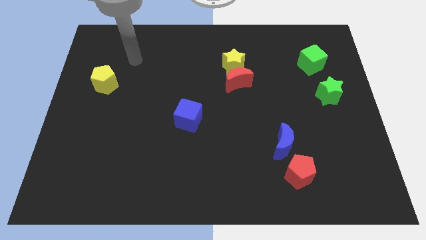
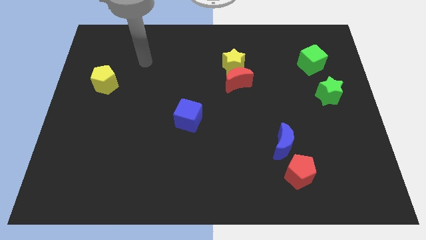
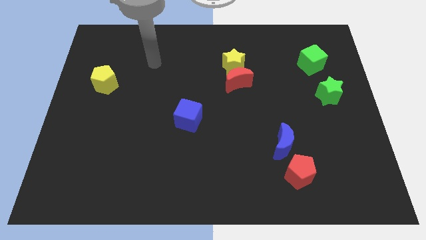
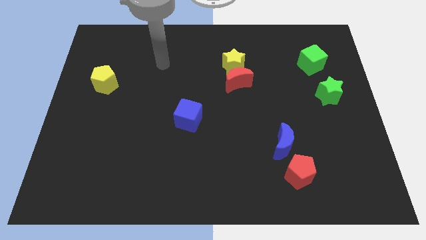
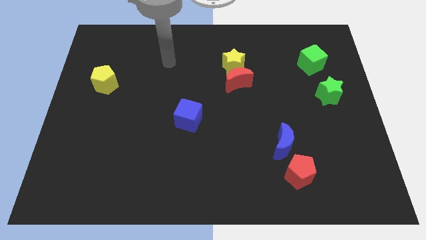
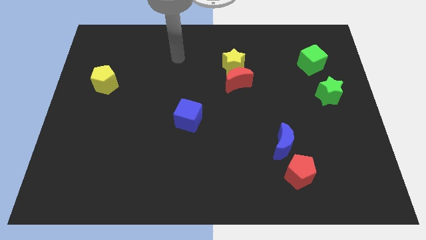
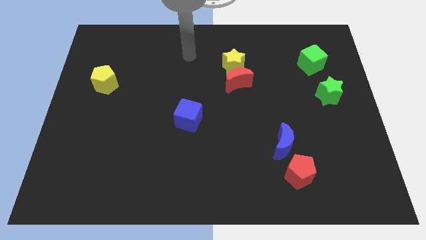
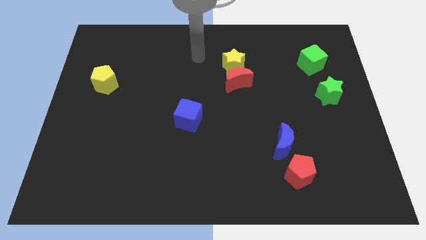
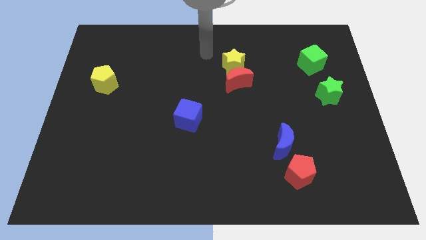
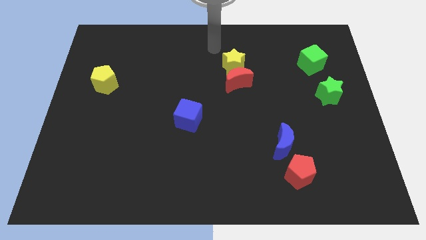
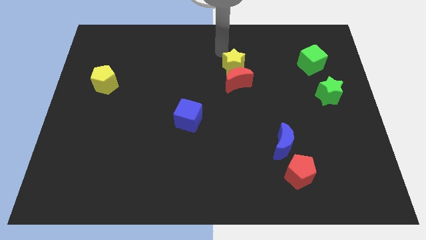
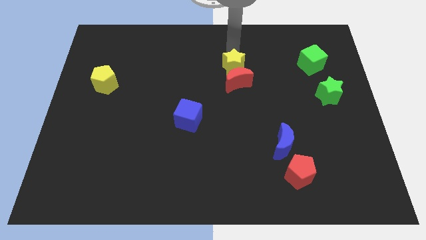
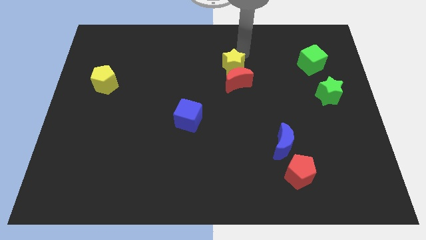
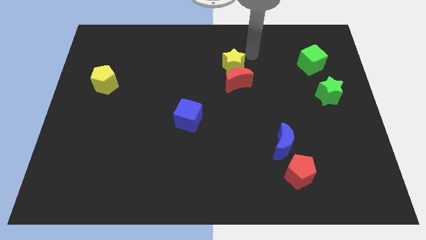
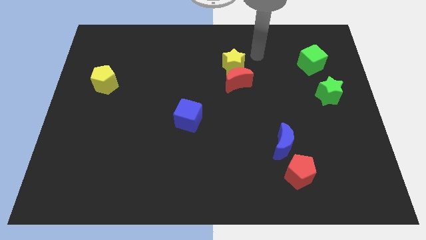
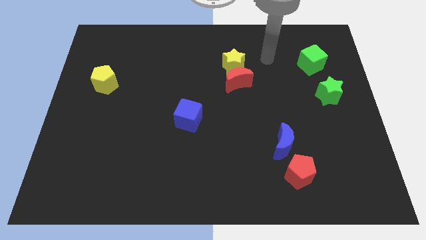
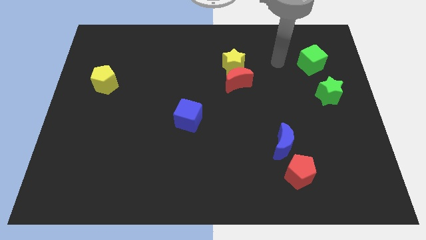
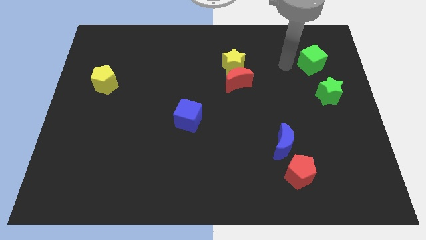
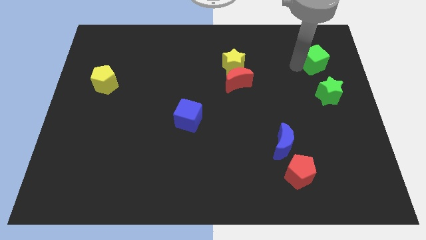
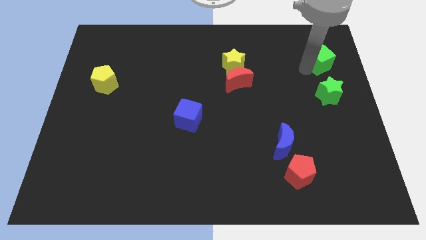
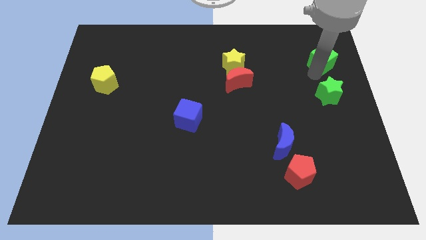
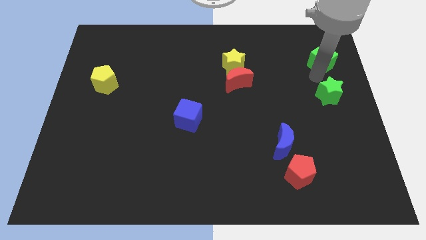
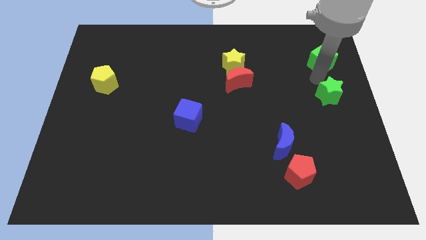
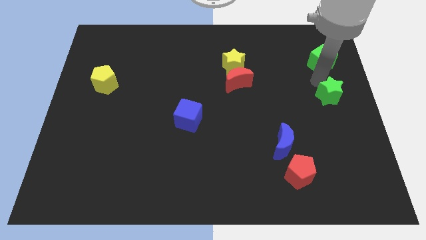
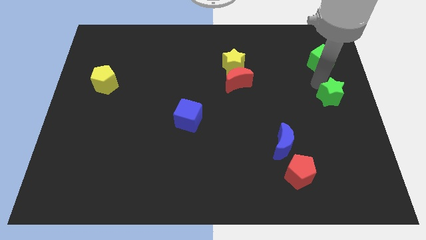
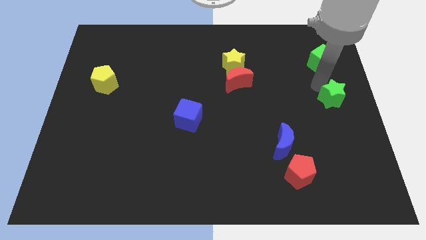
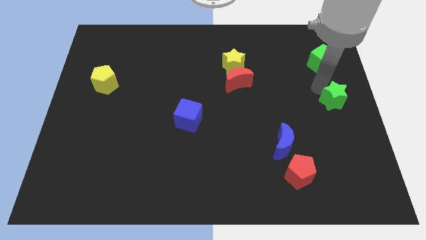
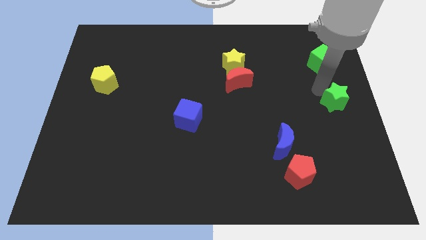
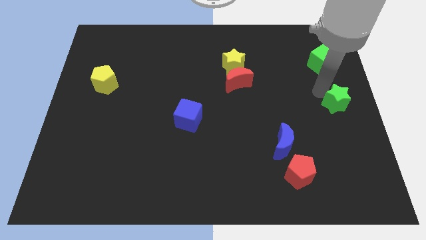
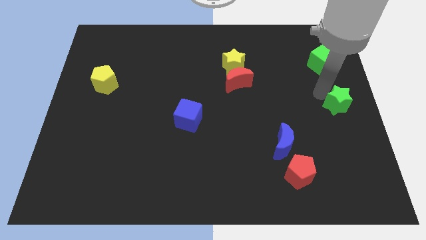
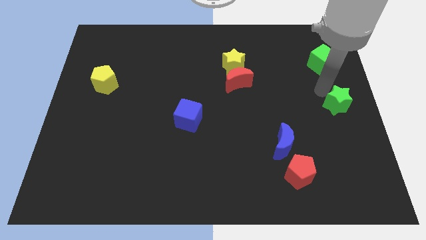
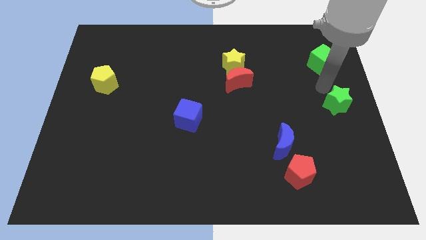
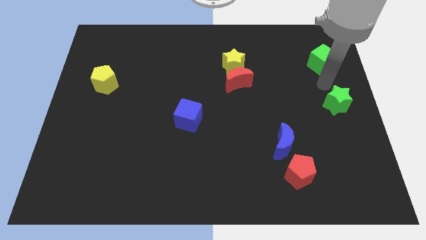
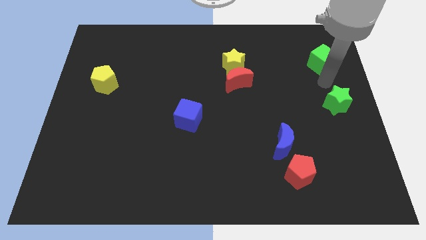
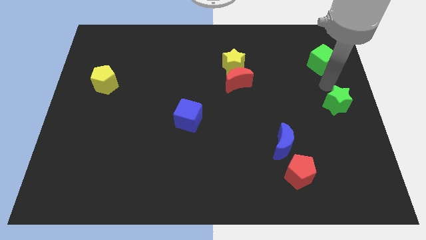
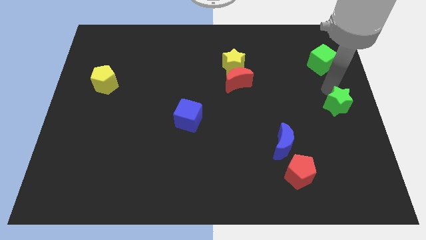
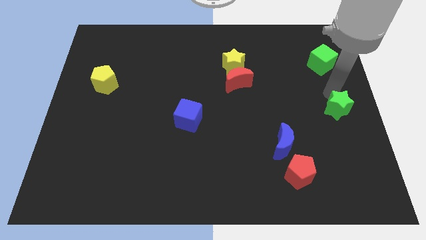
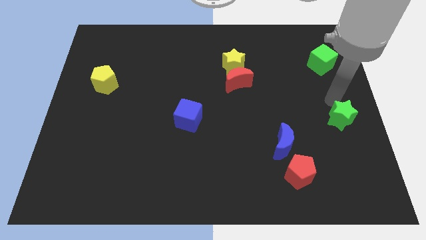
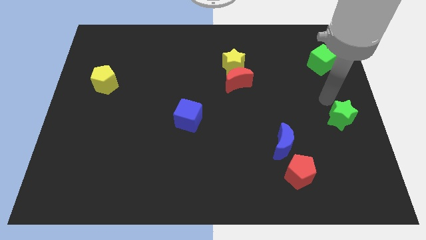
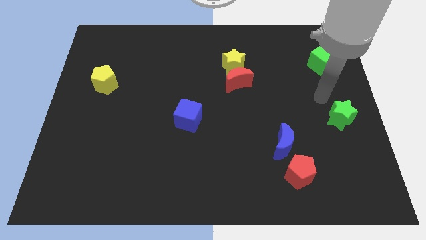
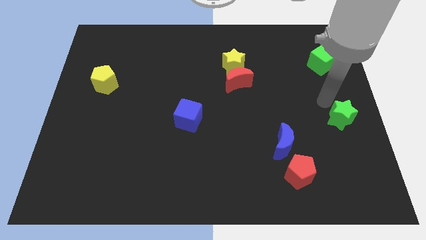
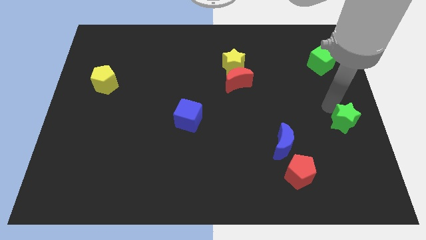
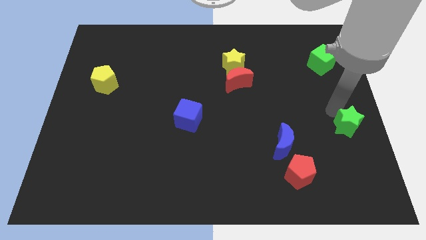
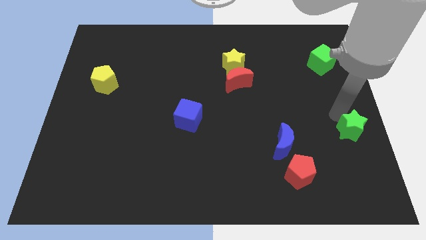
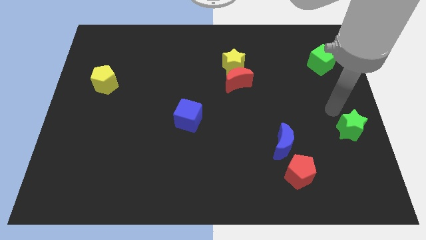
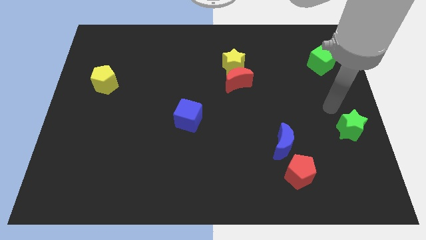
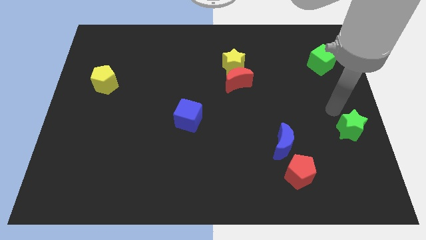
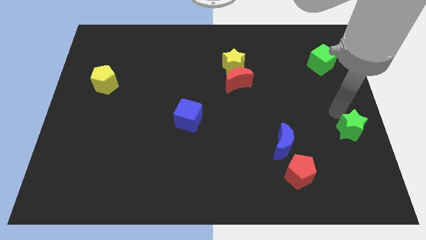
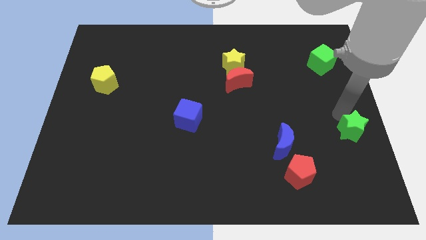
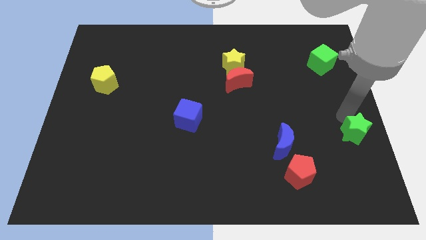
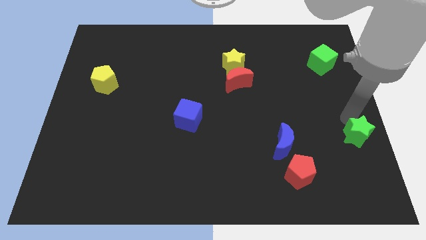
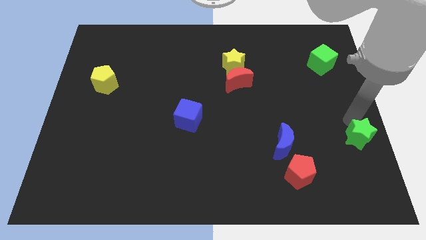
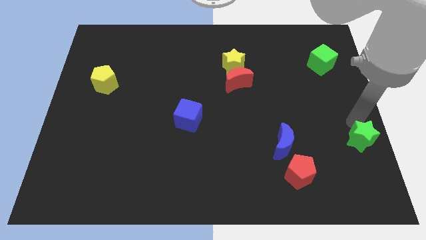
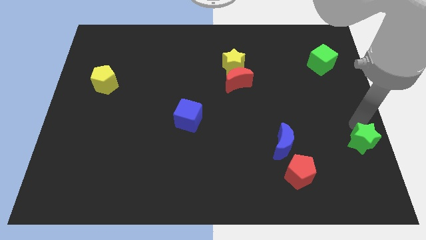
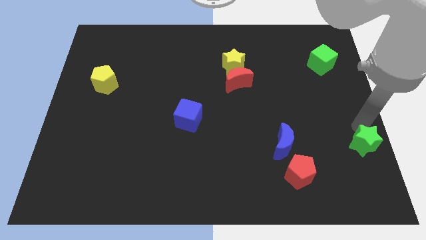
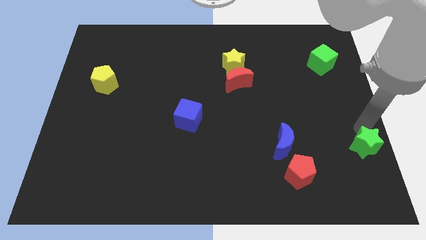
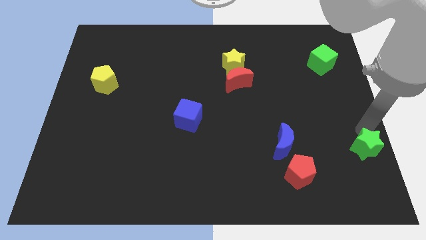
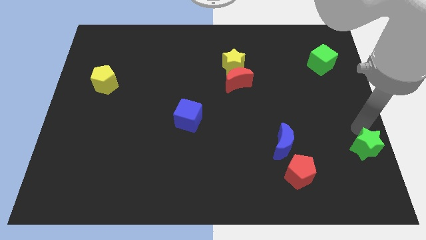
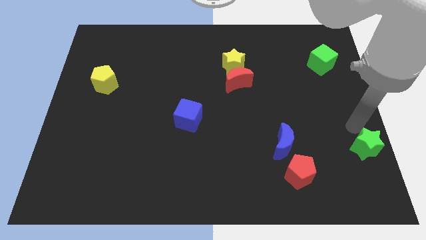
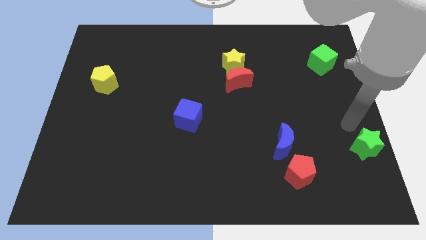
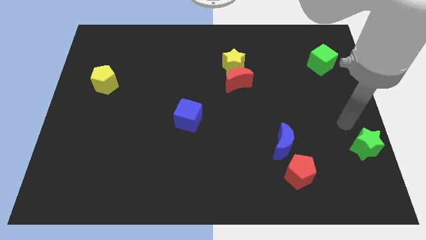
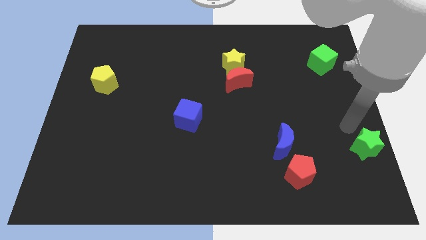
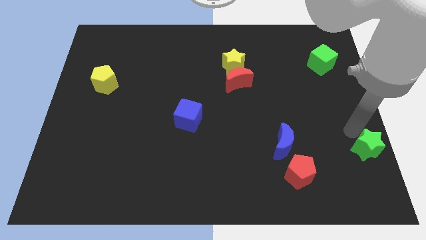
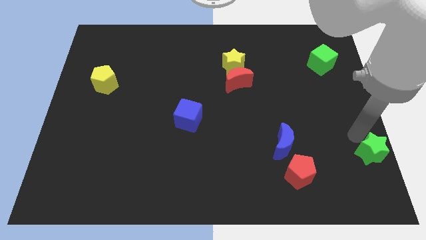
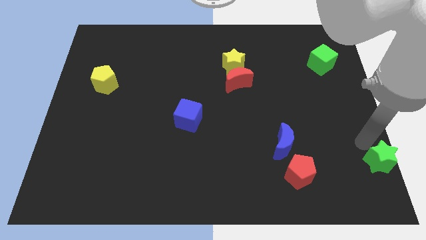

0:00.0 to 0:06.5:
push the green star to the bottom right corner

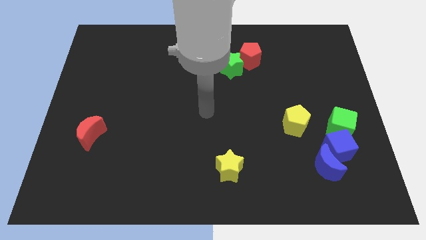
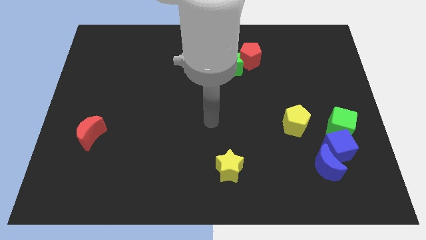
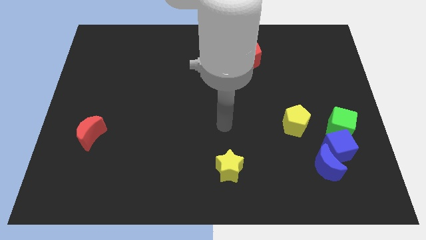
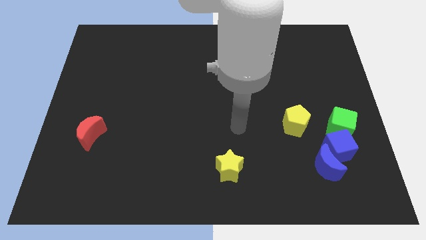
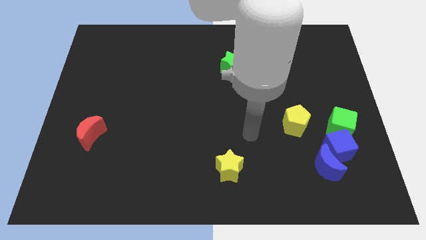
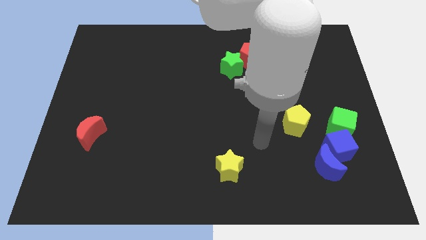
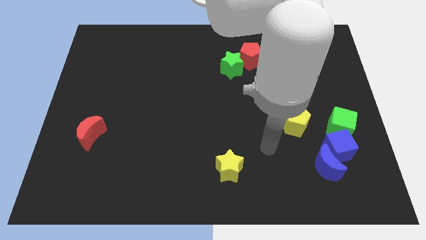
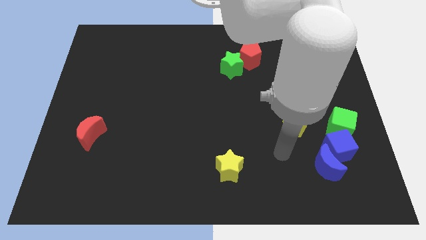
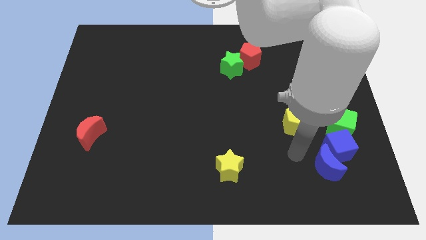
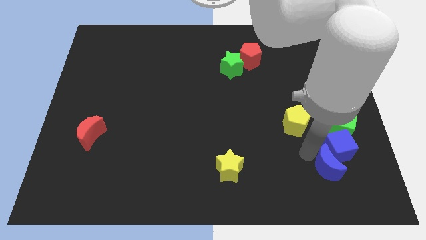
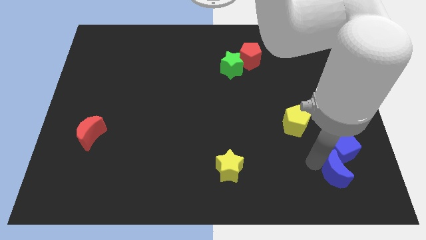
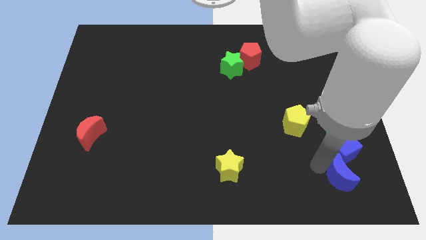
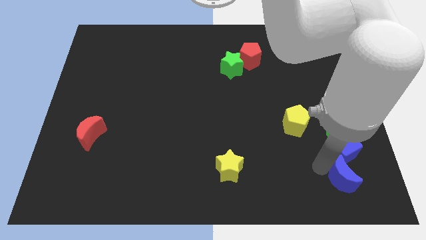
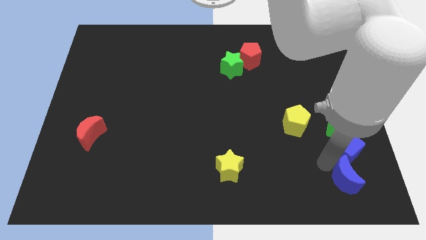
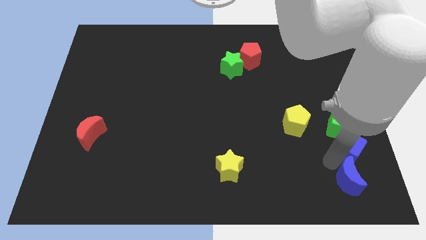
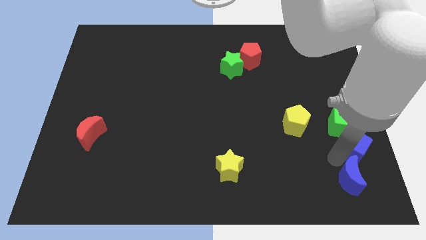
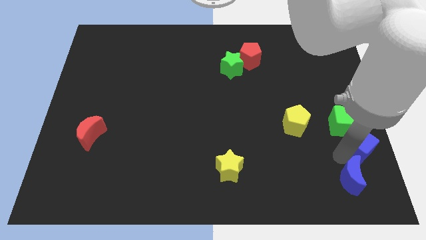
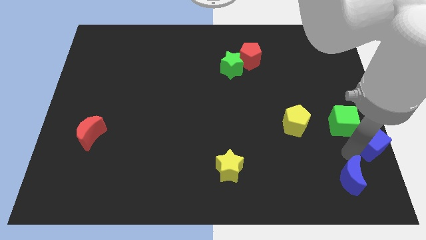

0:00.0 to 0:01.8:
put the blue cube to the right side of the board
